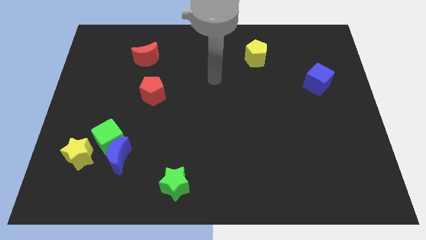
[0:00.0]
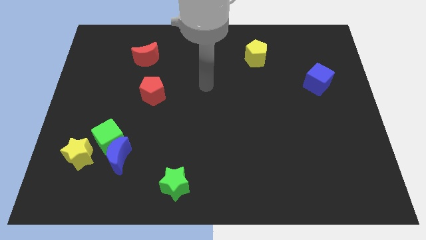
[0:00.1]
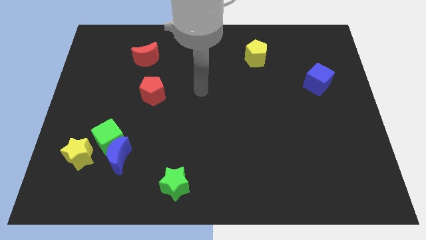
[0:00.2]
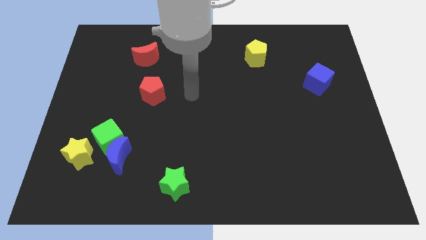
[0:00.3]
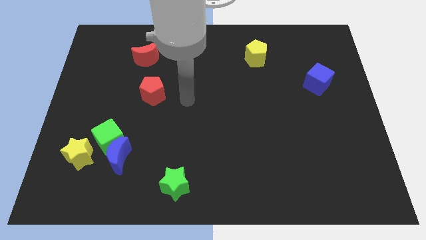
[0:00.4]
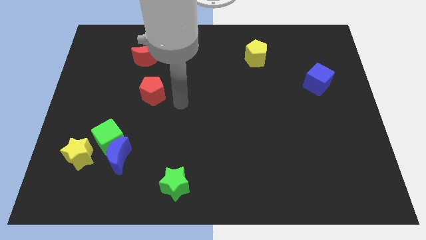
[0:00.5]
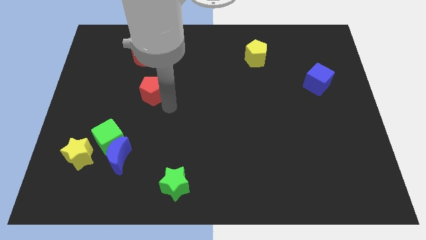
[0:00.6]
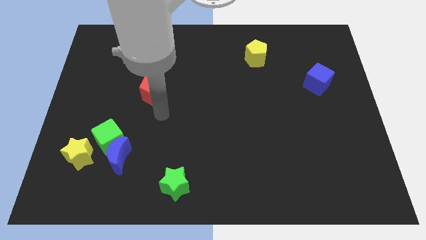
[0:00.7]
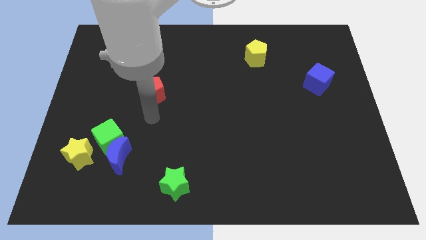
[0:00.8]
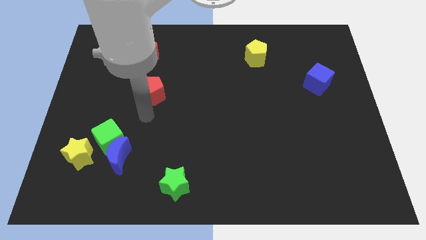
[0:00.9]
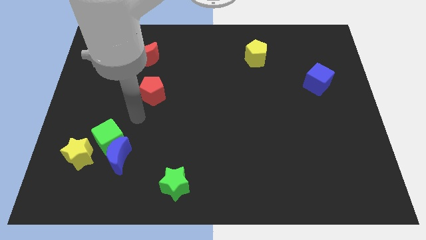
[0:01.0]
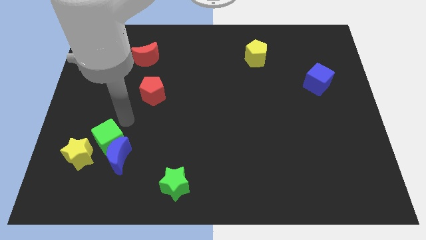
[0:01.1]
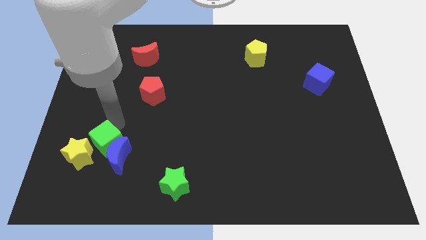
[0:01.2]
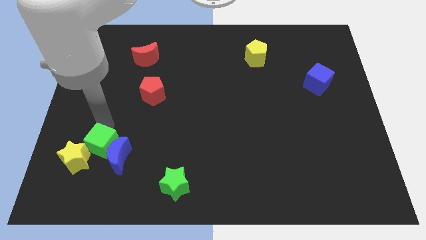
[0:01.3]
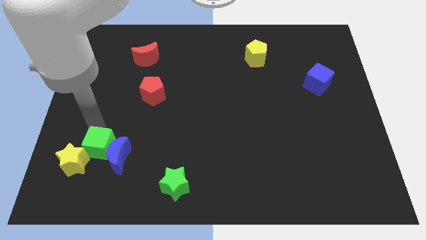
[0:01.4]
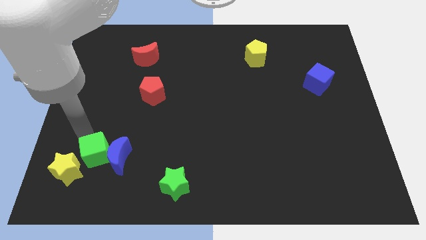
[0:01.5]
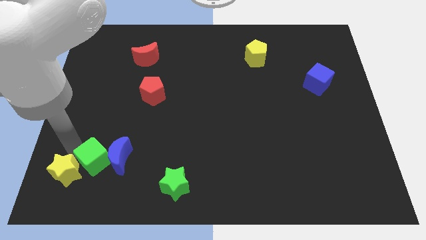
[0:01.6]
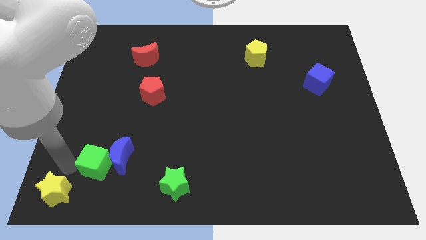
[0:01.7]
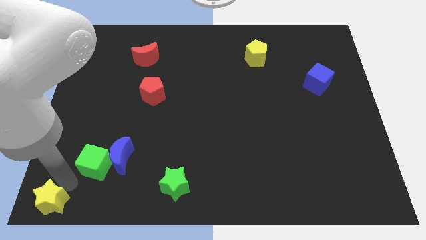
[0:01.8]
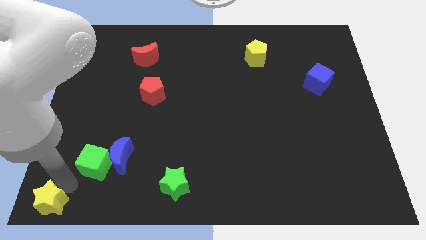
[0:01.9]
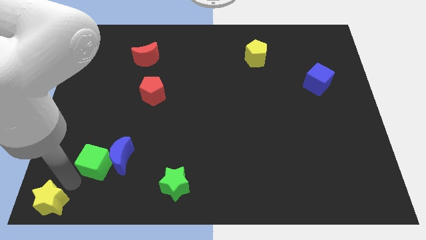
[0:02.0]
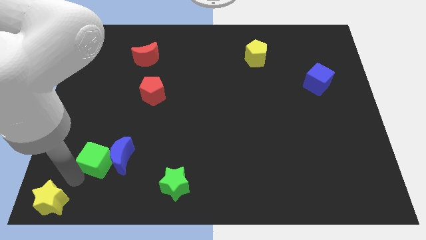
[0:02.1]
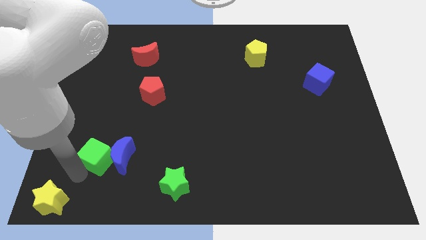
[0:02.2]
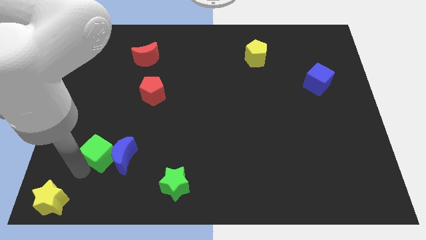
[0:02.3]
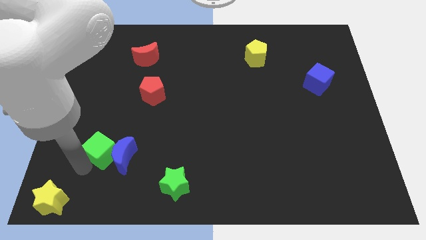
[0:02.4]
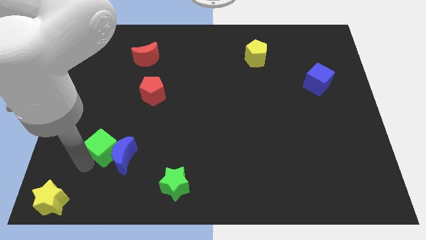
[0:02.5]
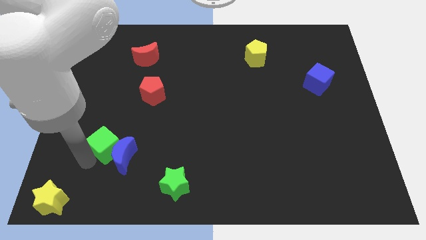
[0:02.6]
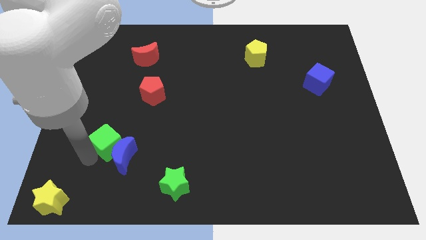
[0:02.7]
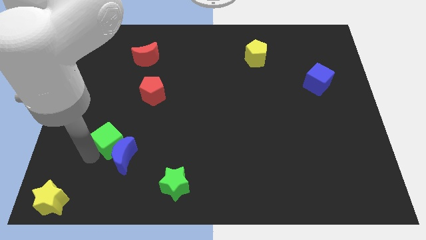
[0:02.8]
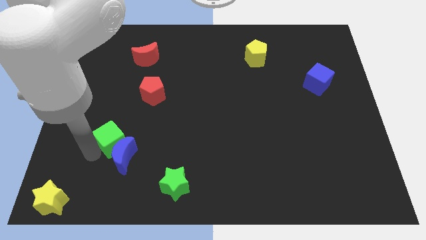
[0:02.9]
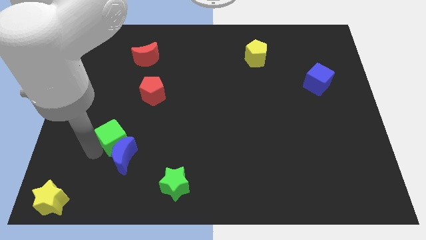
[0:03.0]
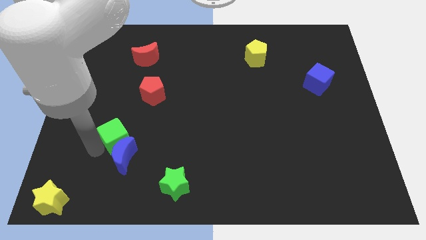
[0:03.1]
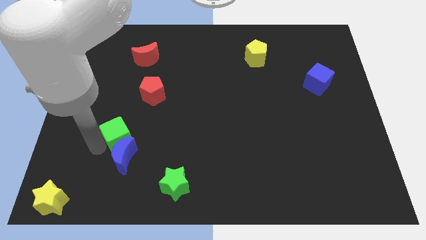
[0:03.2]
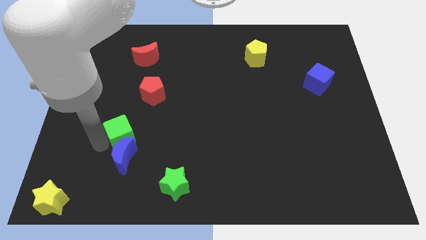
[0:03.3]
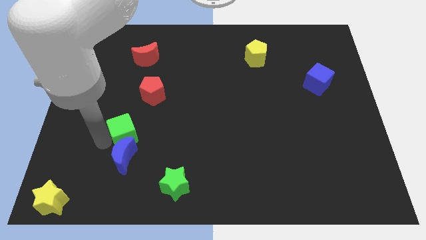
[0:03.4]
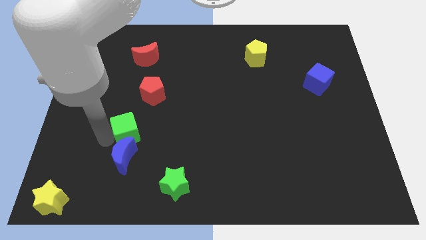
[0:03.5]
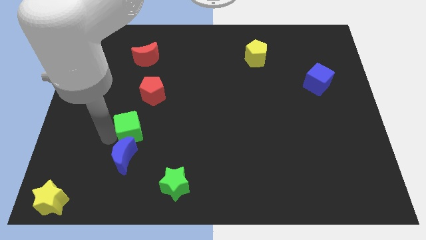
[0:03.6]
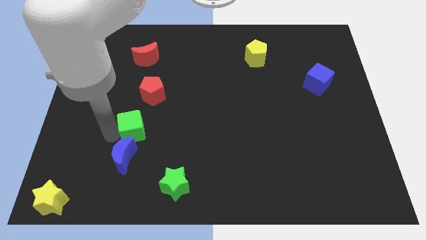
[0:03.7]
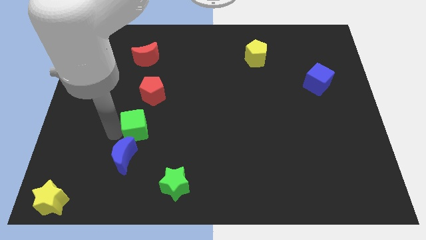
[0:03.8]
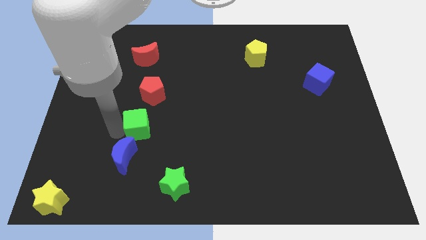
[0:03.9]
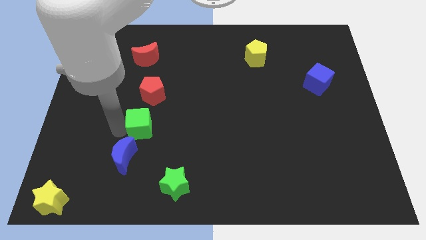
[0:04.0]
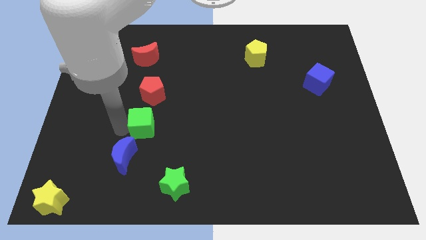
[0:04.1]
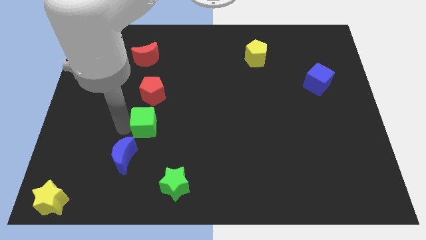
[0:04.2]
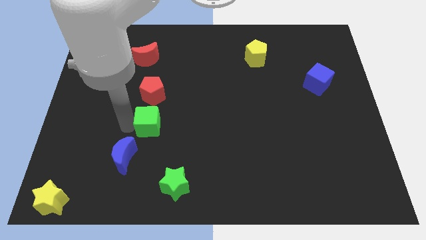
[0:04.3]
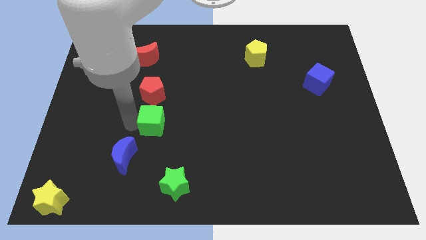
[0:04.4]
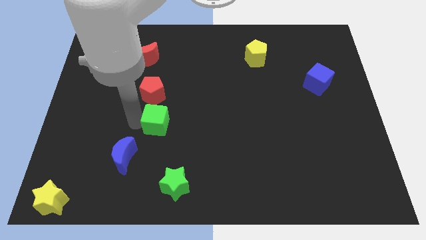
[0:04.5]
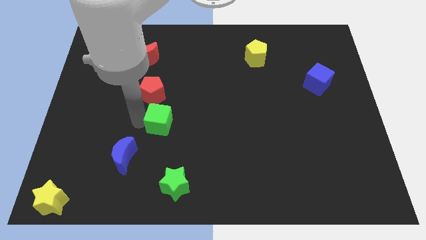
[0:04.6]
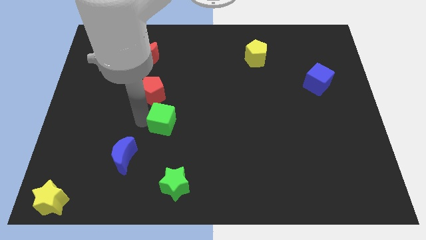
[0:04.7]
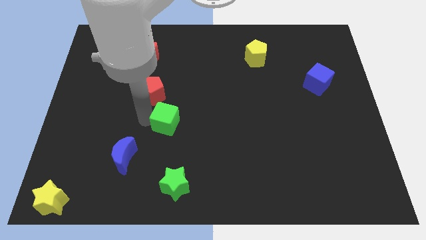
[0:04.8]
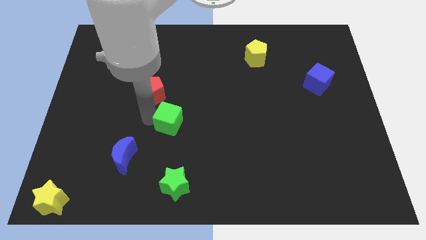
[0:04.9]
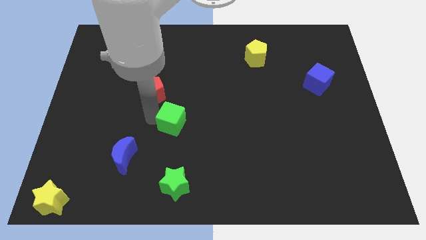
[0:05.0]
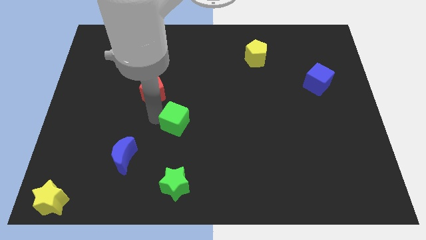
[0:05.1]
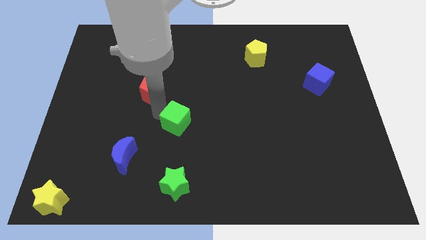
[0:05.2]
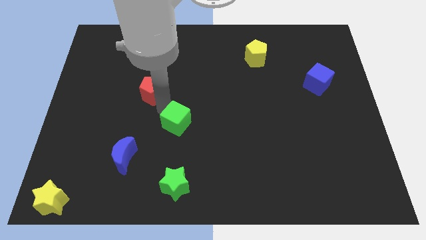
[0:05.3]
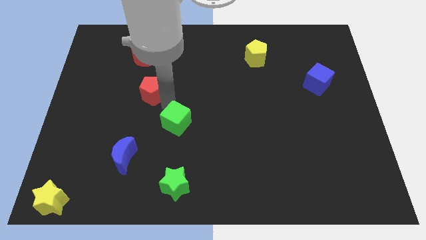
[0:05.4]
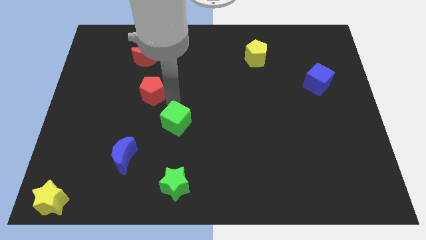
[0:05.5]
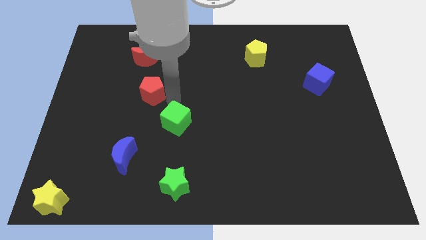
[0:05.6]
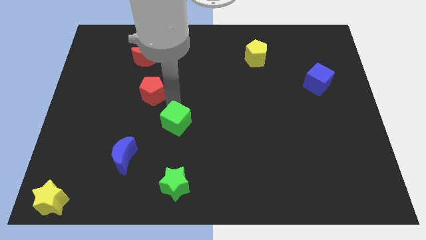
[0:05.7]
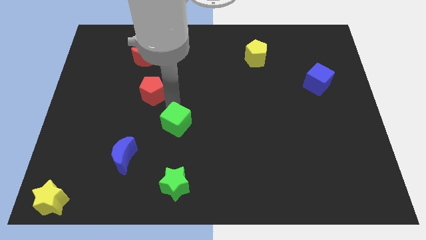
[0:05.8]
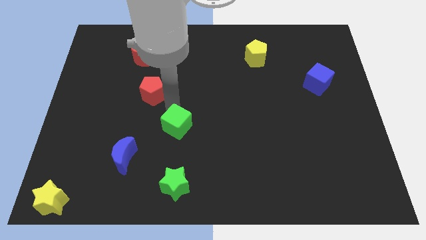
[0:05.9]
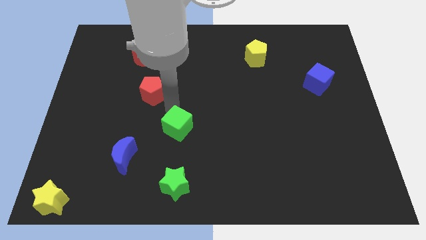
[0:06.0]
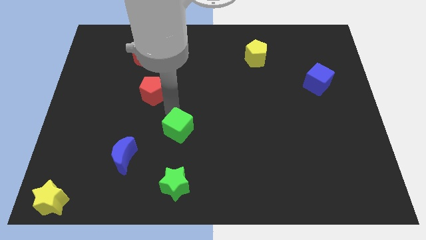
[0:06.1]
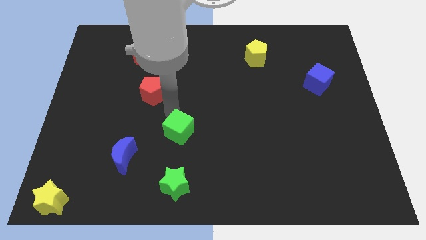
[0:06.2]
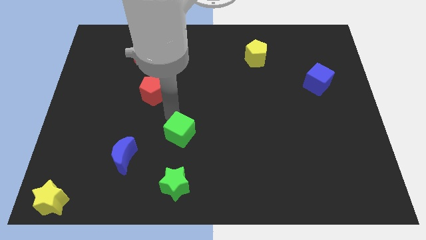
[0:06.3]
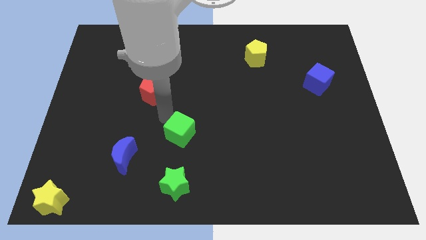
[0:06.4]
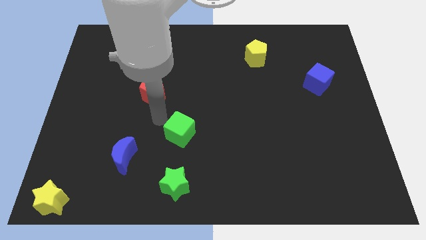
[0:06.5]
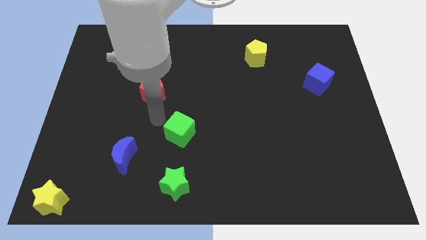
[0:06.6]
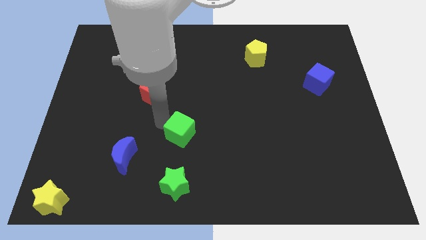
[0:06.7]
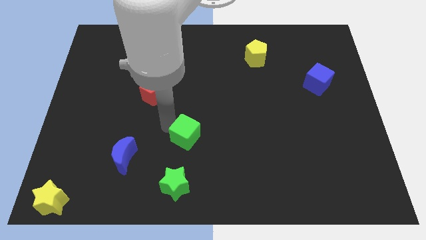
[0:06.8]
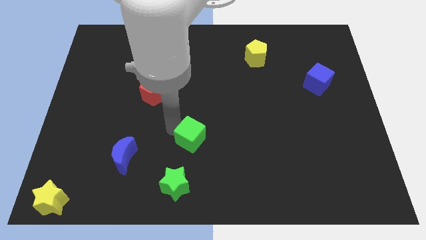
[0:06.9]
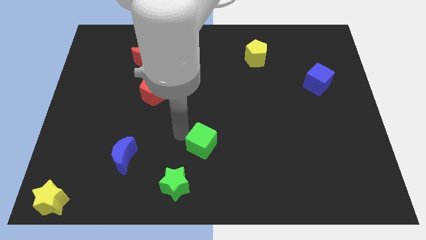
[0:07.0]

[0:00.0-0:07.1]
slide the green cube to the right

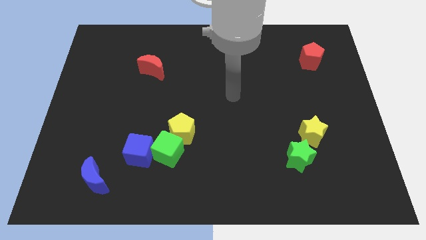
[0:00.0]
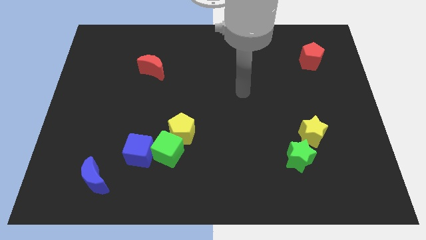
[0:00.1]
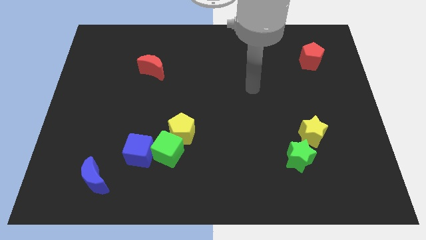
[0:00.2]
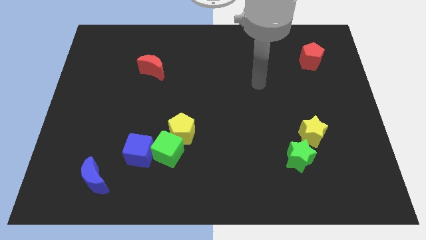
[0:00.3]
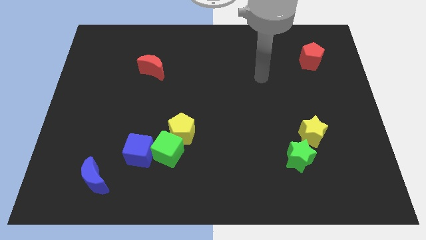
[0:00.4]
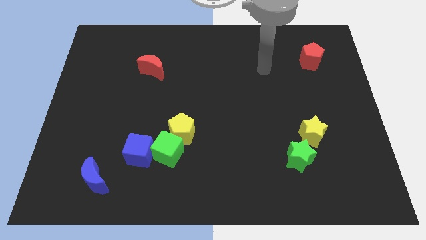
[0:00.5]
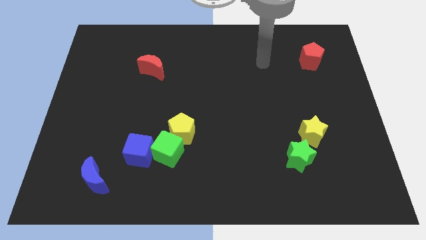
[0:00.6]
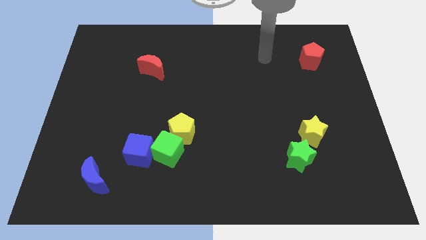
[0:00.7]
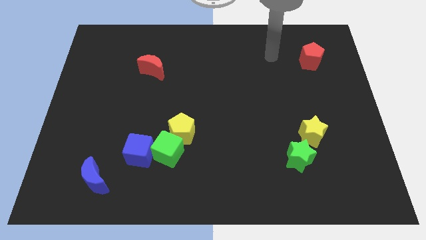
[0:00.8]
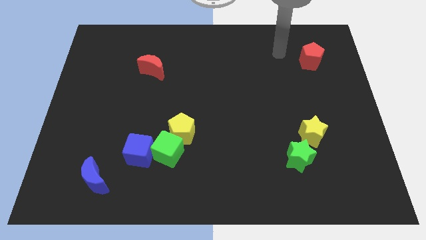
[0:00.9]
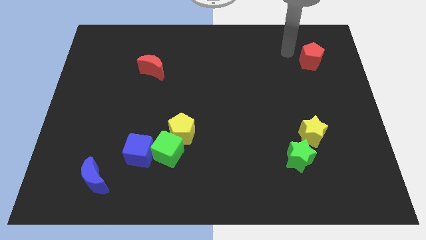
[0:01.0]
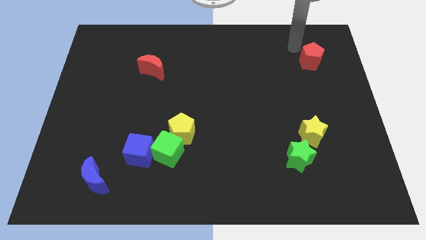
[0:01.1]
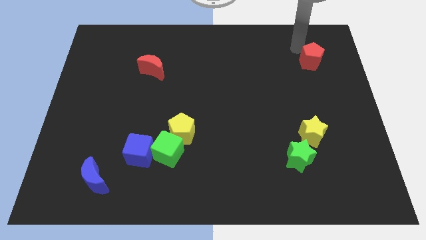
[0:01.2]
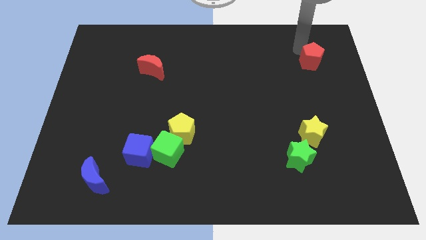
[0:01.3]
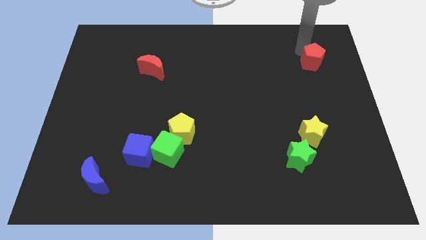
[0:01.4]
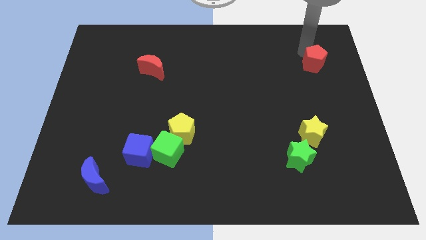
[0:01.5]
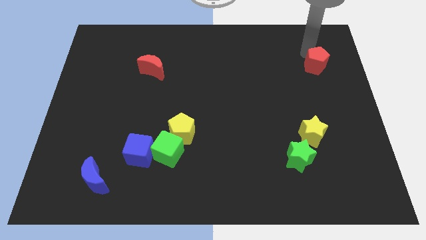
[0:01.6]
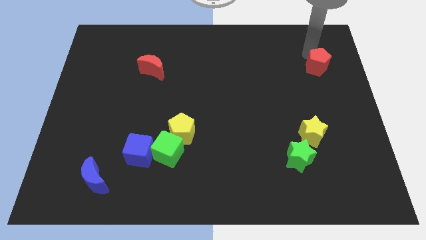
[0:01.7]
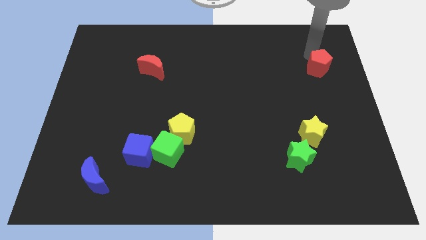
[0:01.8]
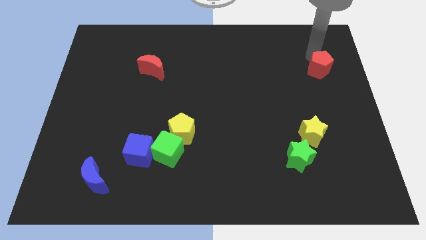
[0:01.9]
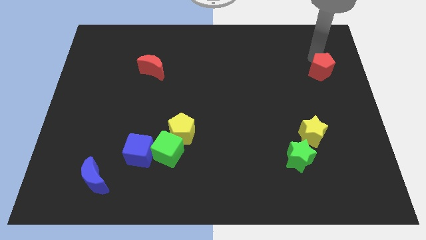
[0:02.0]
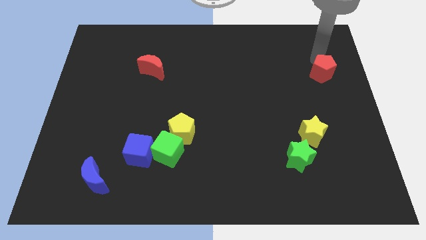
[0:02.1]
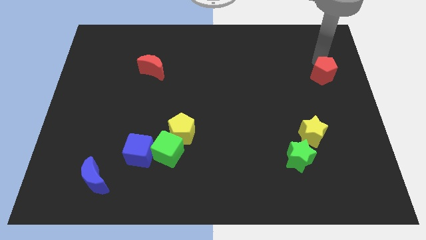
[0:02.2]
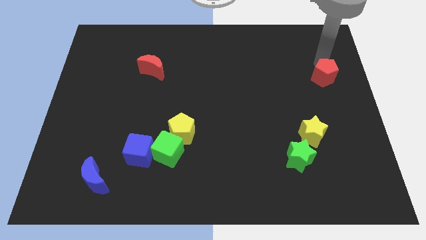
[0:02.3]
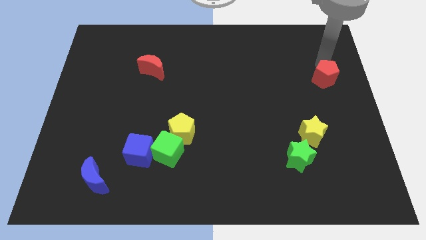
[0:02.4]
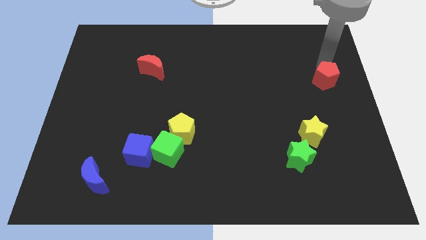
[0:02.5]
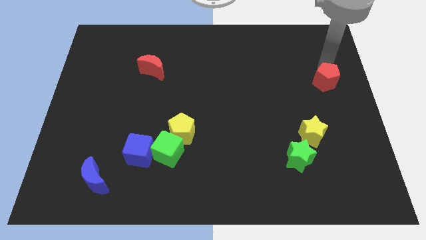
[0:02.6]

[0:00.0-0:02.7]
slide the red pentagon down a little
